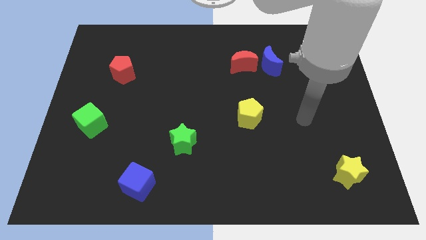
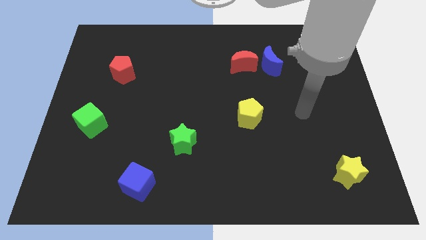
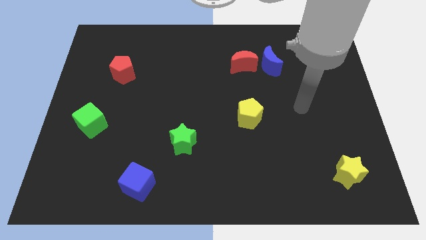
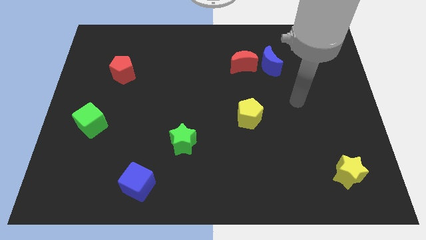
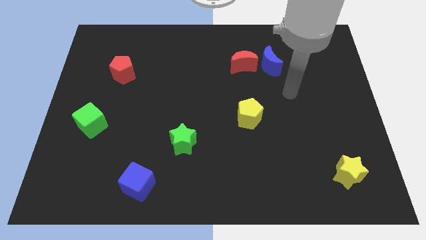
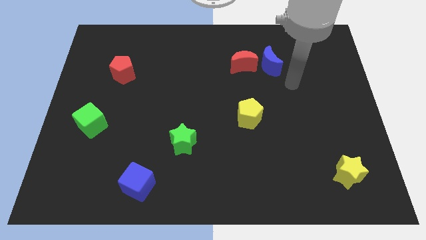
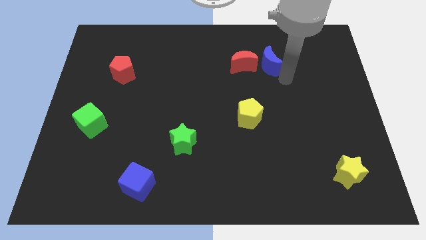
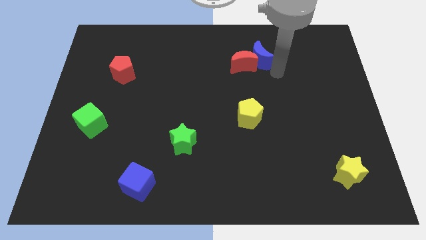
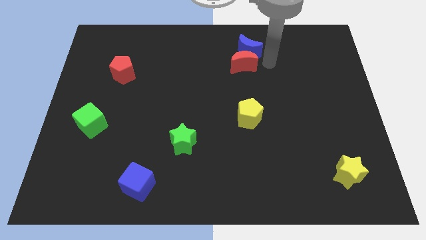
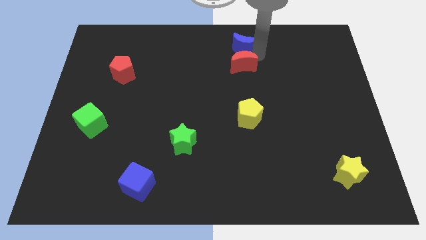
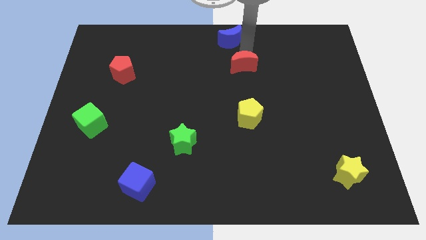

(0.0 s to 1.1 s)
move the red moon away from the blue moon

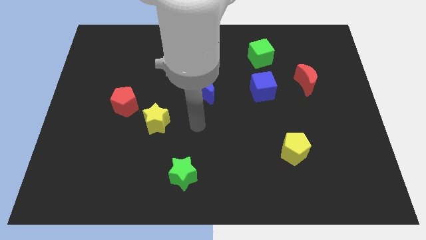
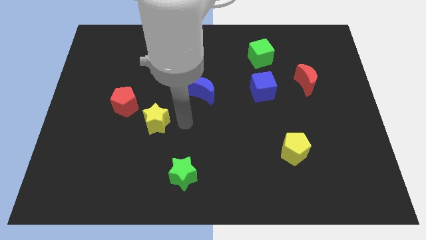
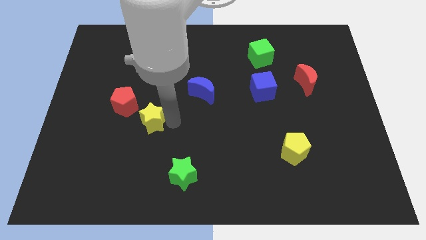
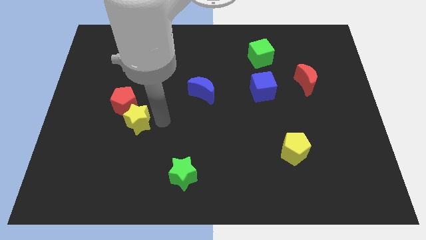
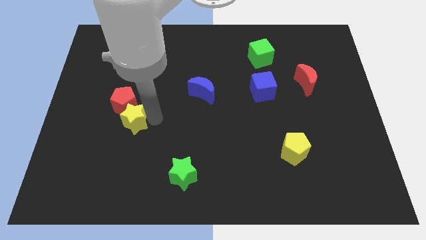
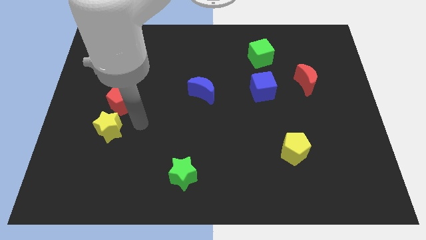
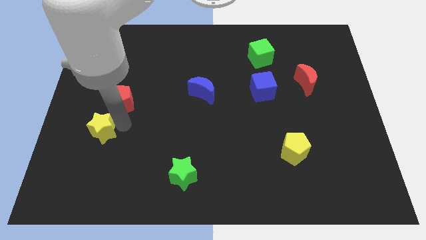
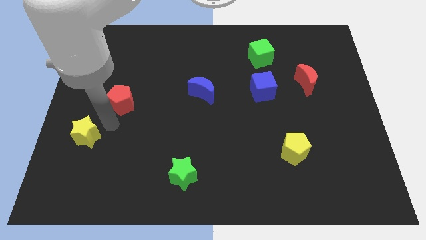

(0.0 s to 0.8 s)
move the red pentagon away from the yellow star

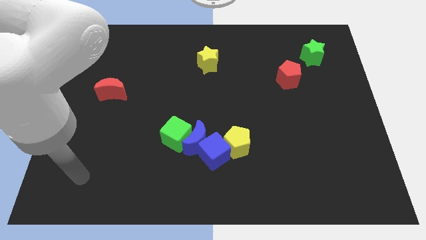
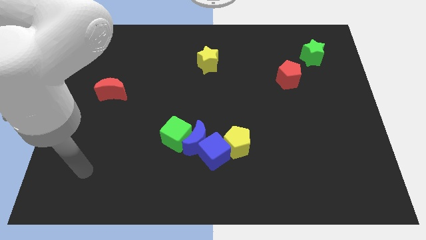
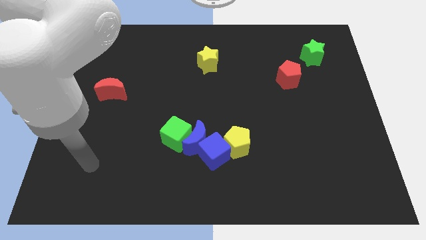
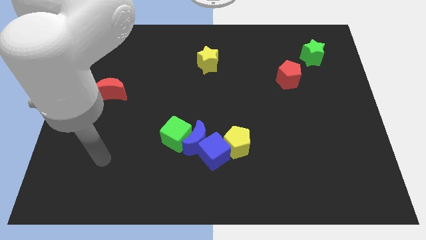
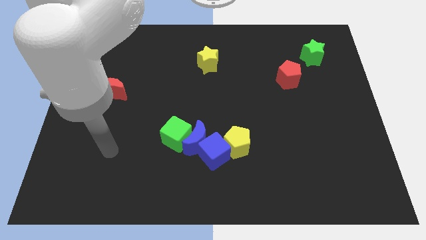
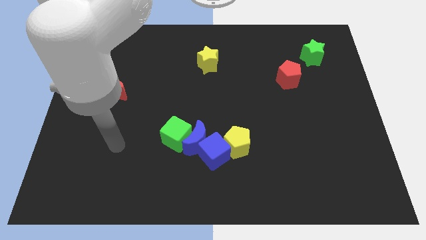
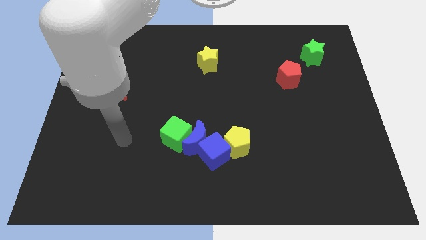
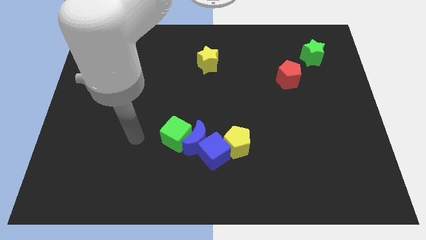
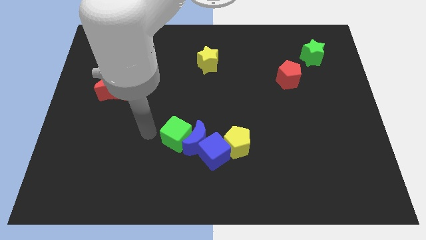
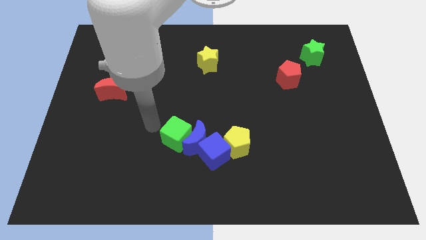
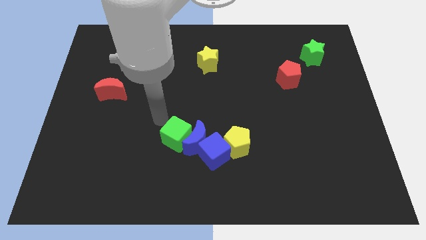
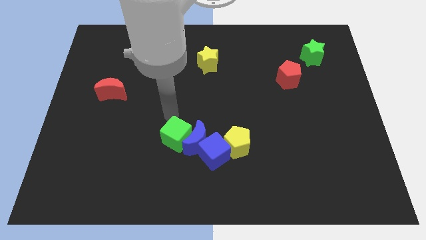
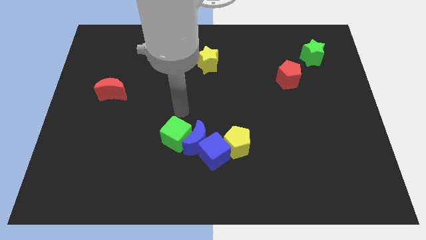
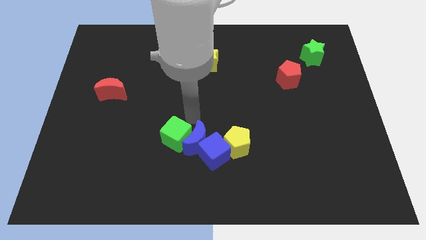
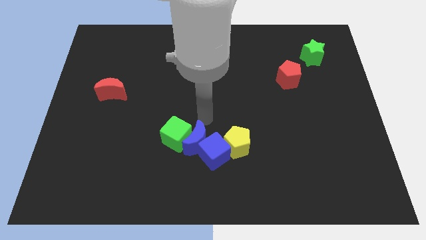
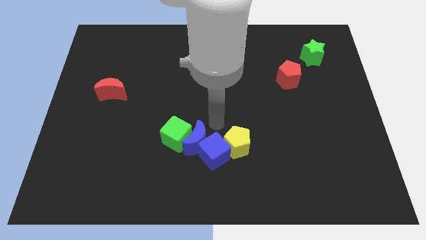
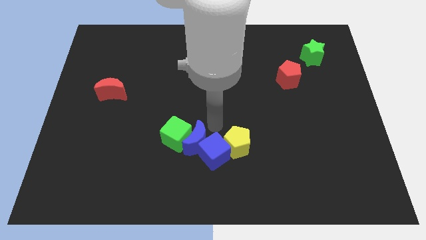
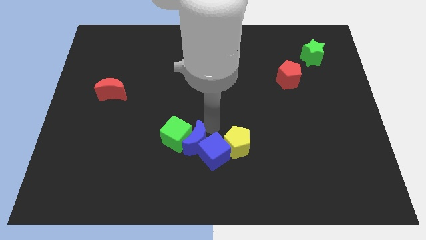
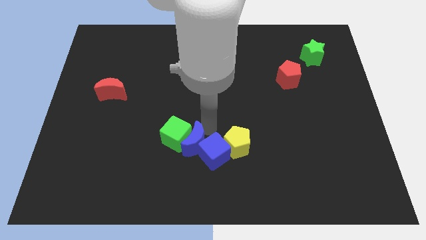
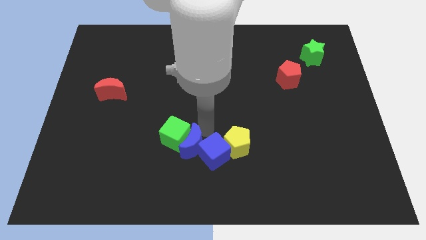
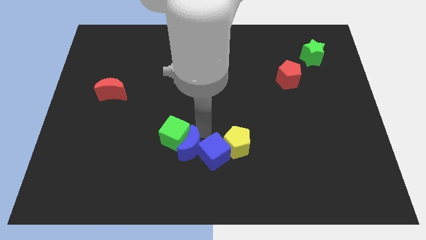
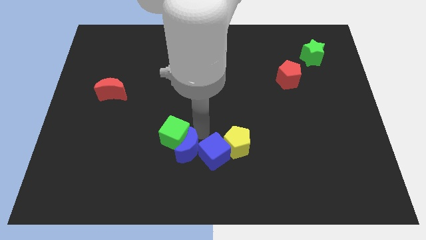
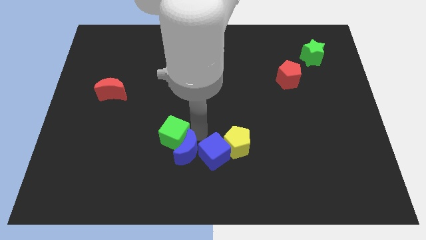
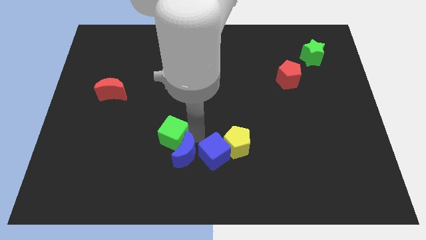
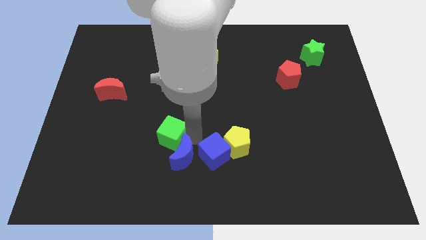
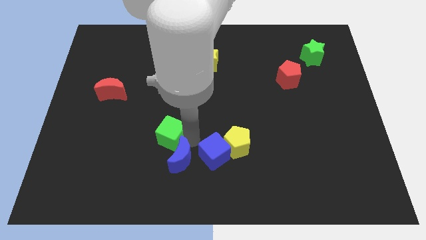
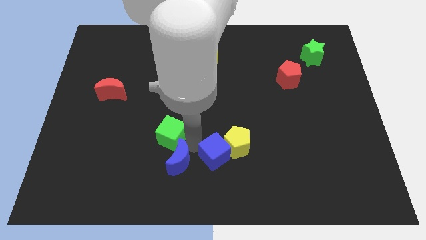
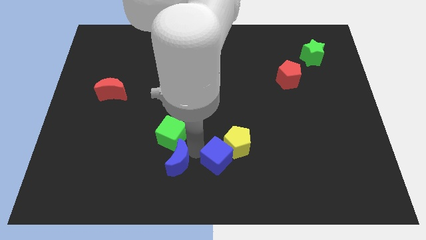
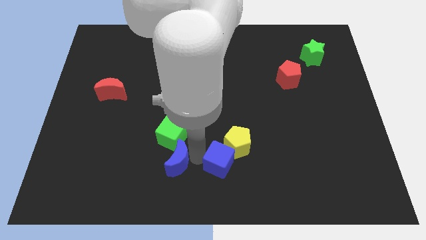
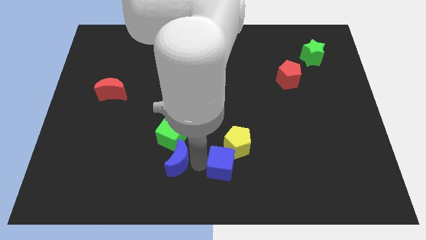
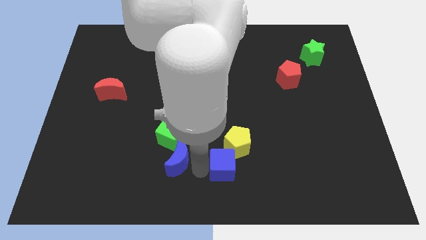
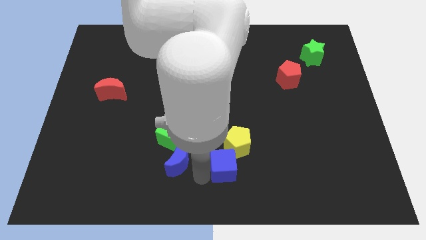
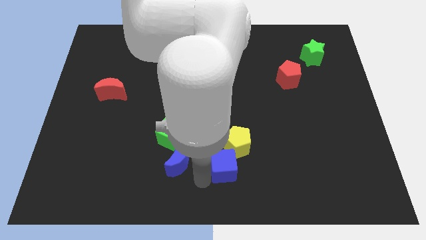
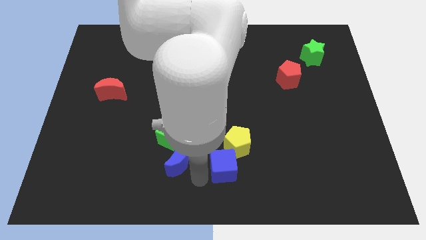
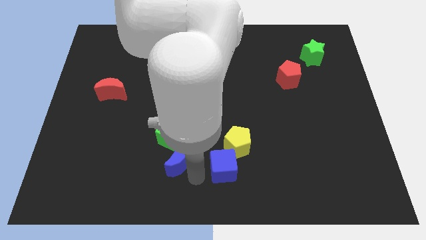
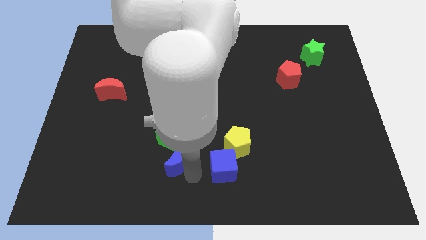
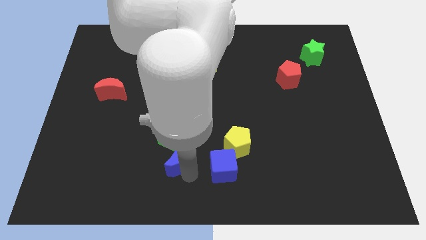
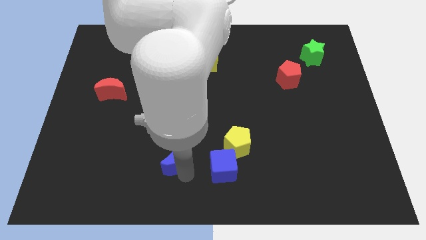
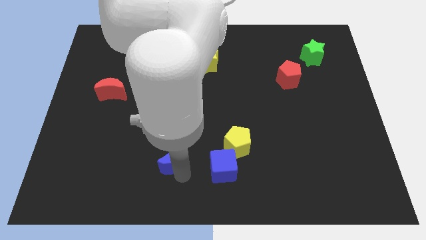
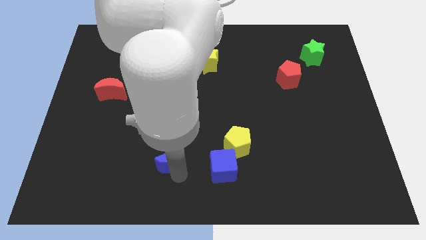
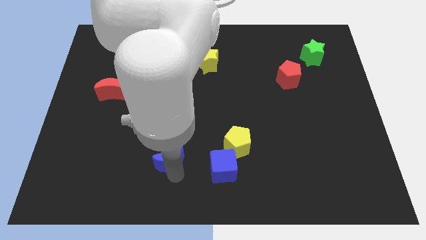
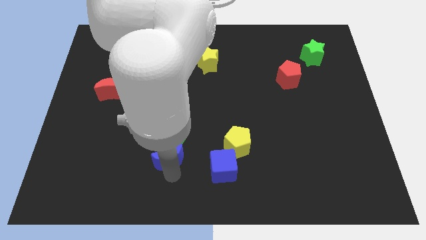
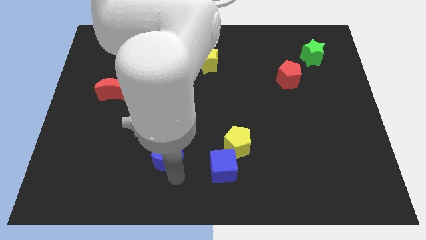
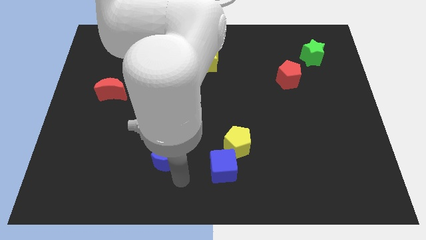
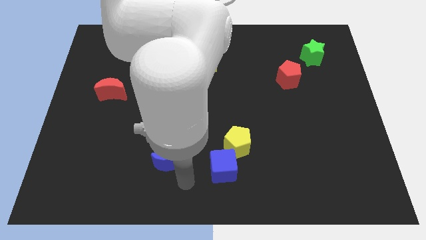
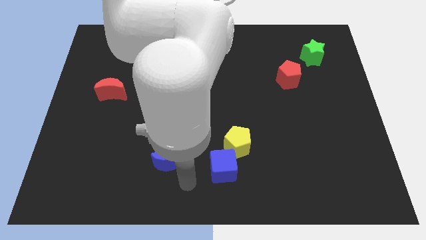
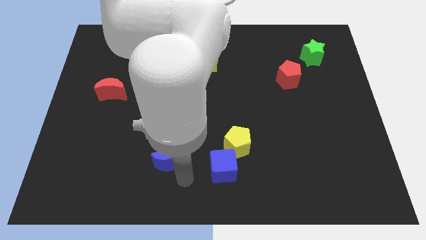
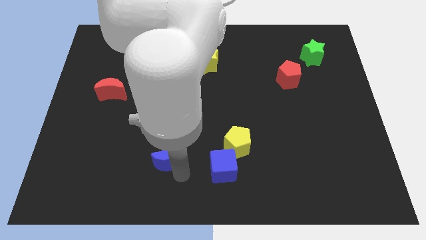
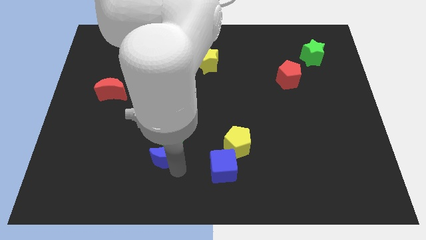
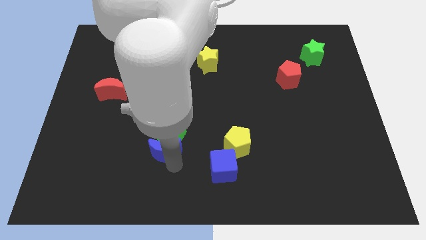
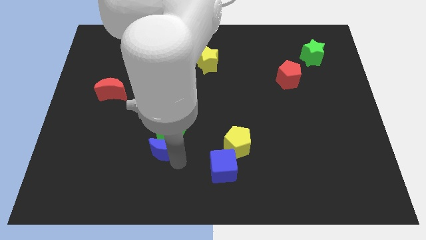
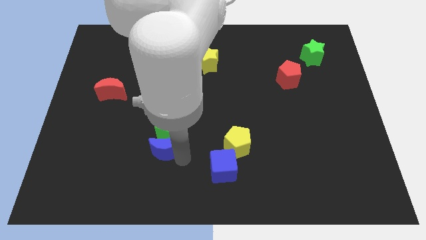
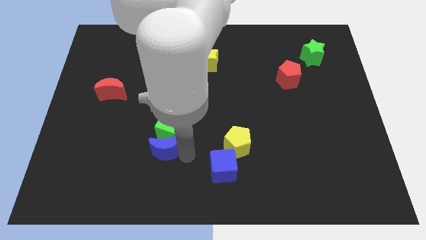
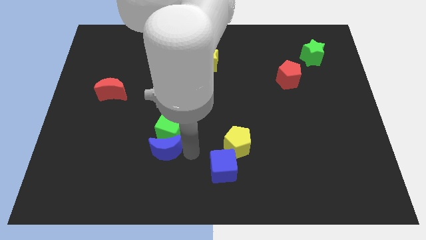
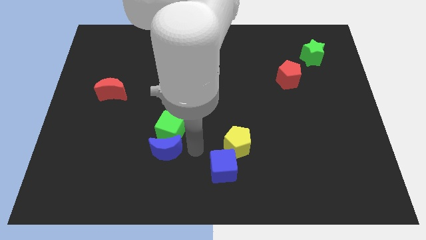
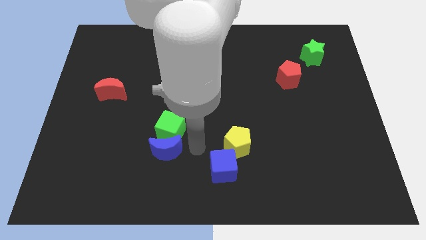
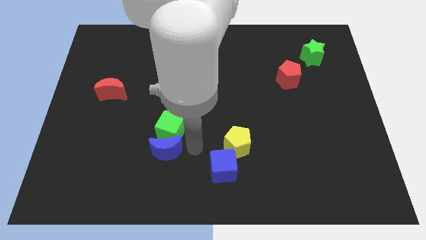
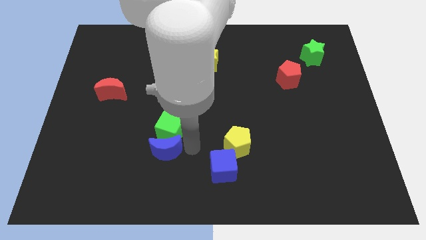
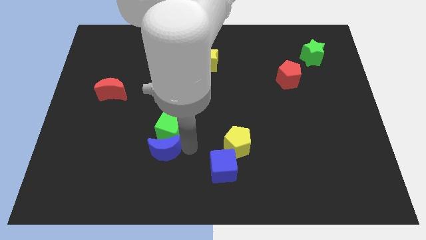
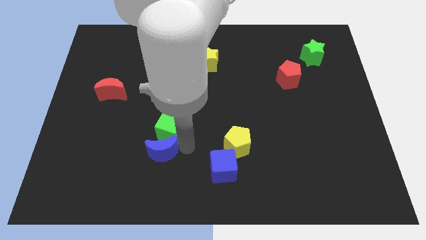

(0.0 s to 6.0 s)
separate the blue moon from the group

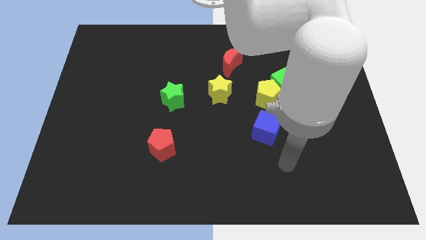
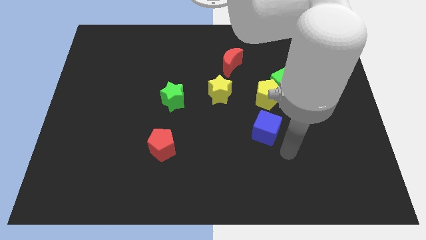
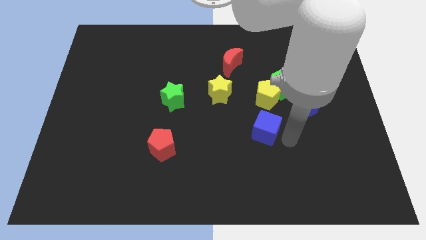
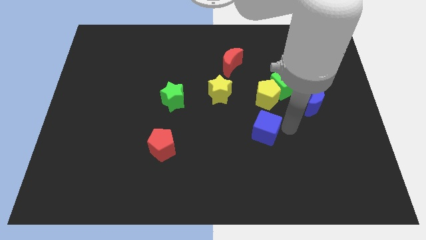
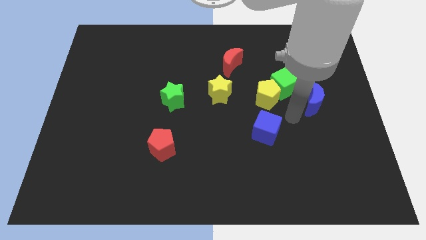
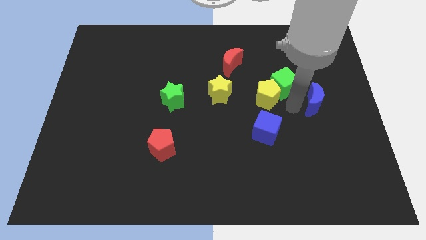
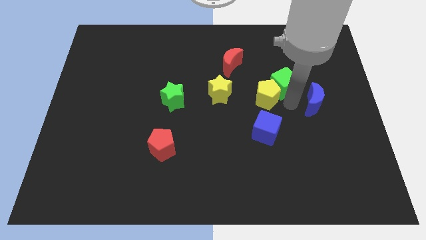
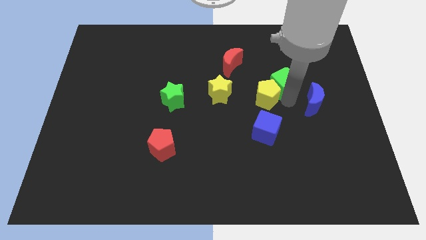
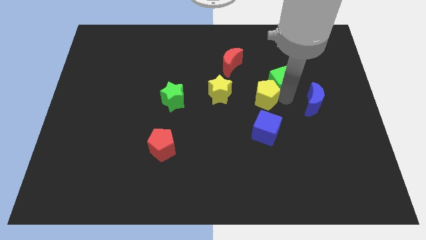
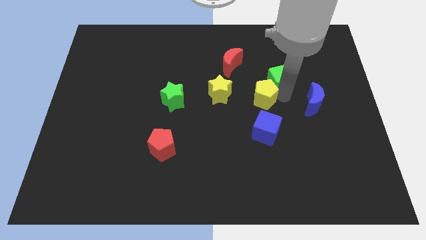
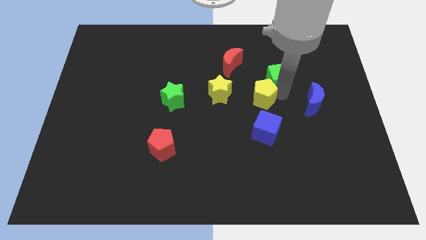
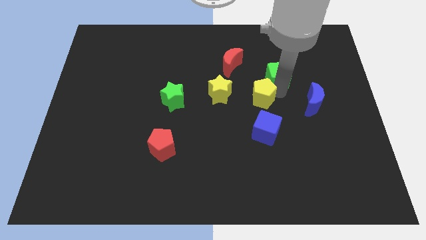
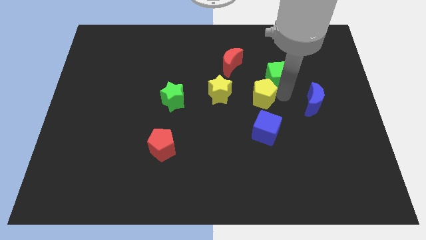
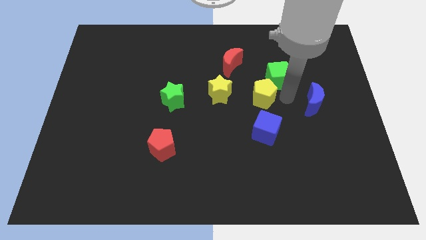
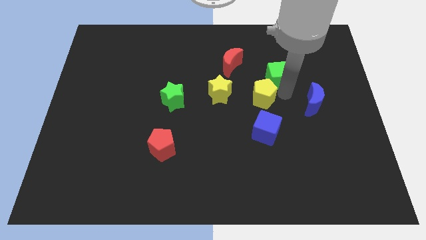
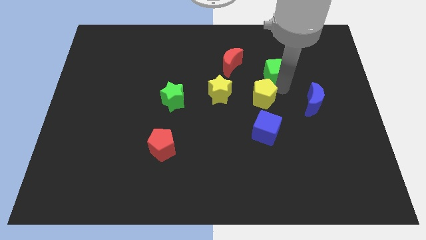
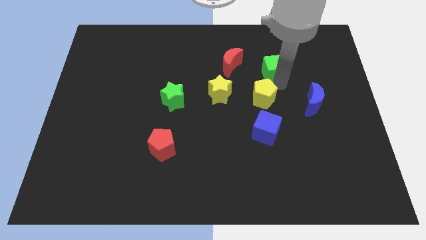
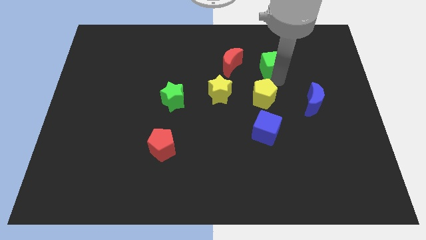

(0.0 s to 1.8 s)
separate the green cube from the yellow pentagon and blue moon
